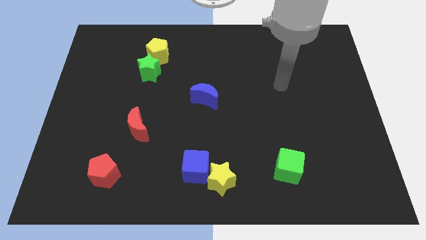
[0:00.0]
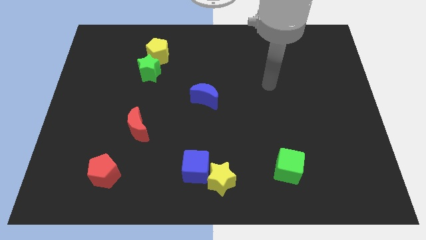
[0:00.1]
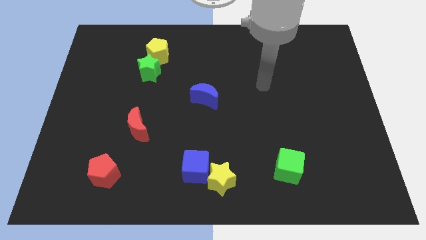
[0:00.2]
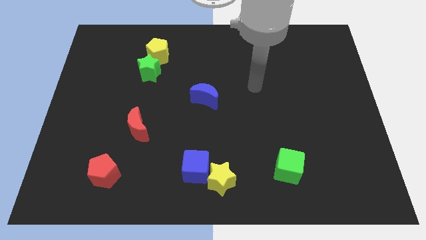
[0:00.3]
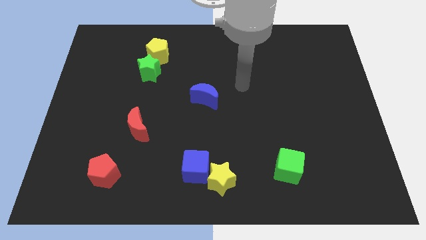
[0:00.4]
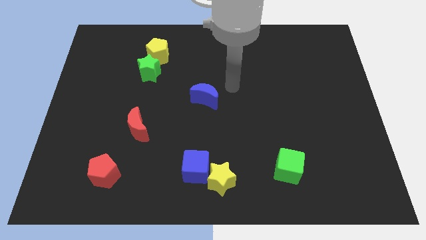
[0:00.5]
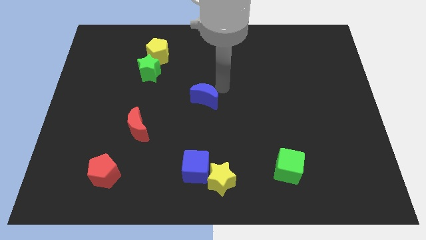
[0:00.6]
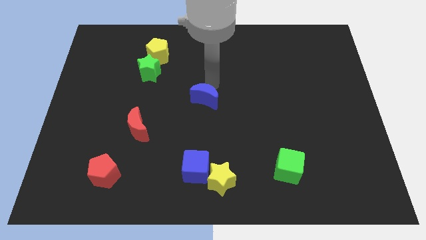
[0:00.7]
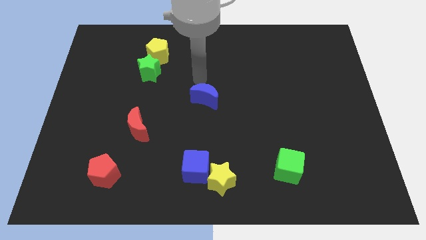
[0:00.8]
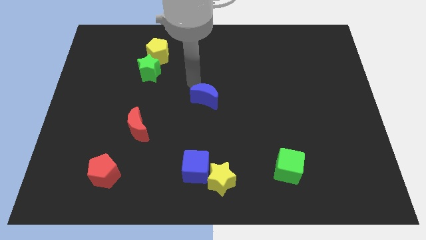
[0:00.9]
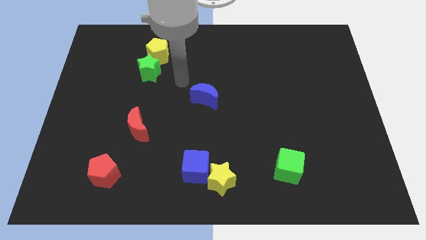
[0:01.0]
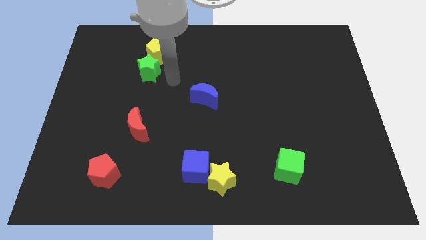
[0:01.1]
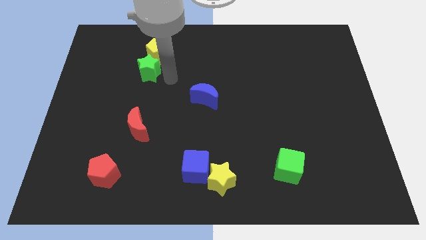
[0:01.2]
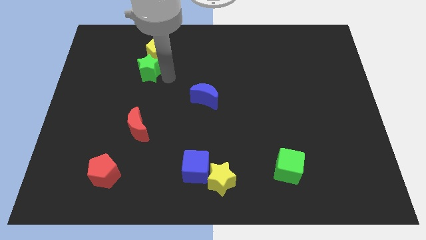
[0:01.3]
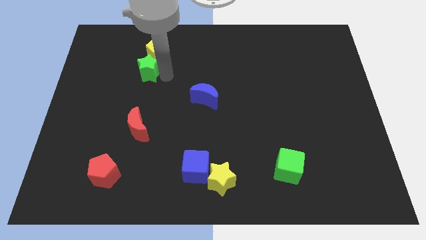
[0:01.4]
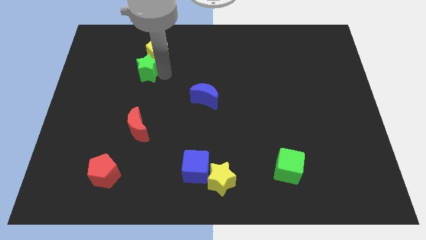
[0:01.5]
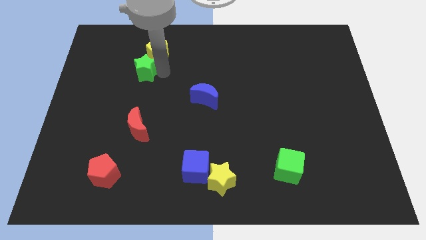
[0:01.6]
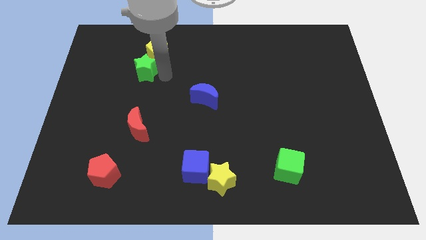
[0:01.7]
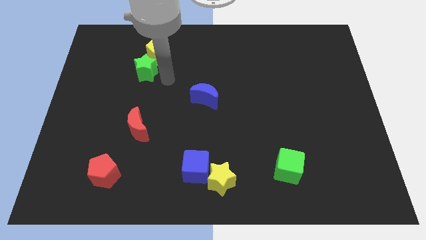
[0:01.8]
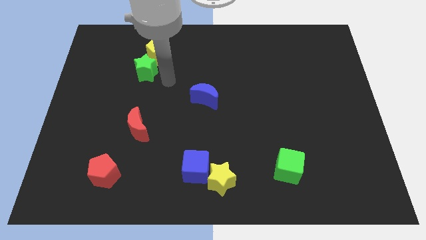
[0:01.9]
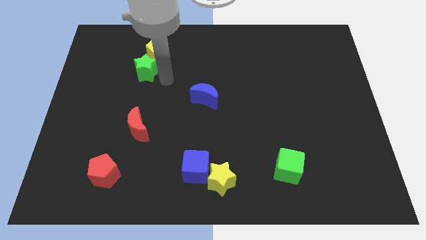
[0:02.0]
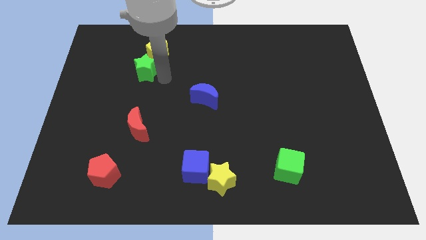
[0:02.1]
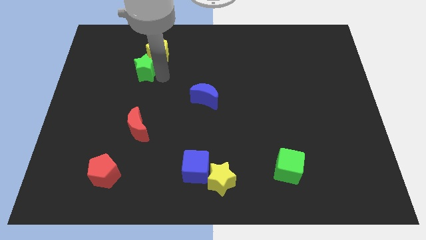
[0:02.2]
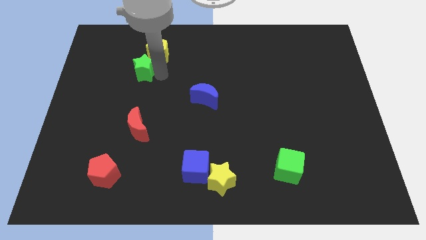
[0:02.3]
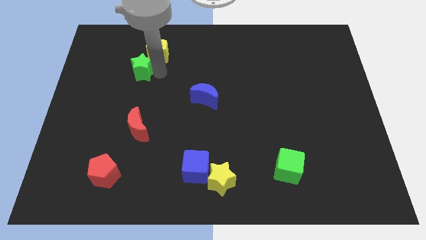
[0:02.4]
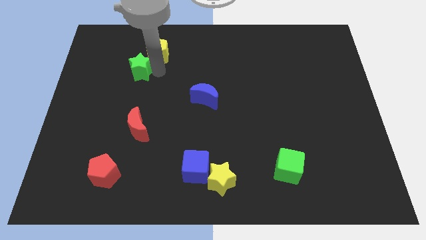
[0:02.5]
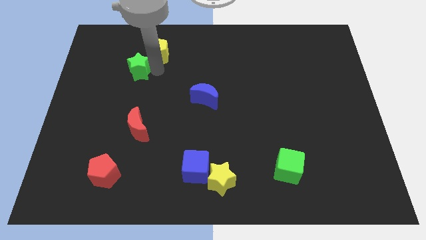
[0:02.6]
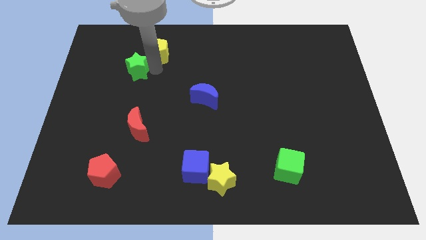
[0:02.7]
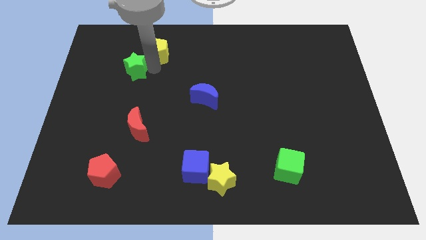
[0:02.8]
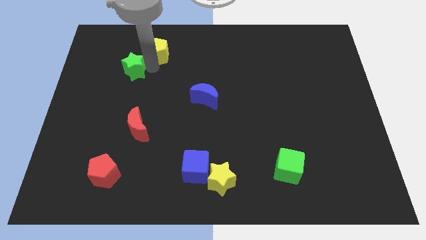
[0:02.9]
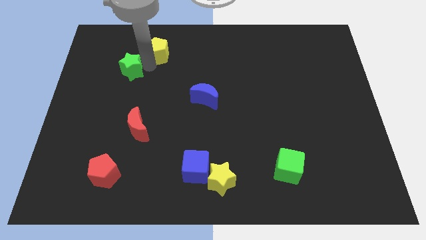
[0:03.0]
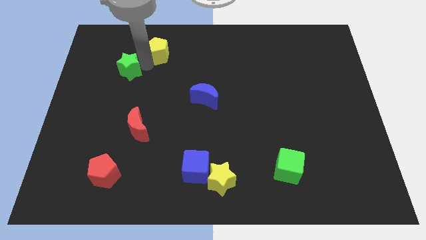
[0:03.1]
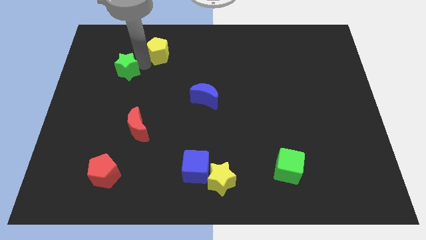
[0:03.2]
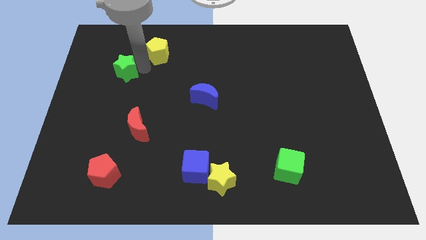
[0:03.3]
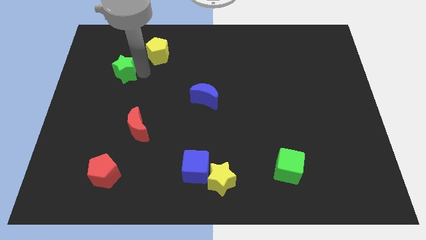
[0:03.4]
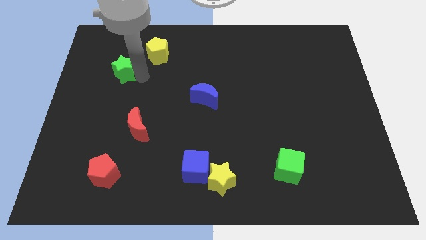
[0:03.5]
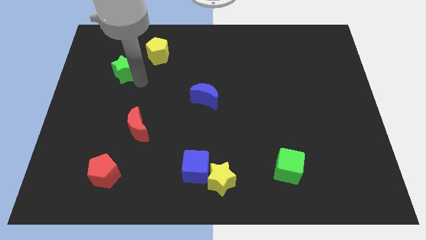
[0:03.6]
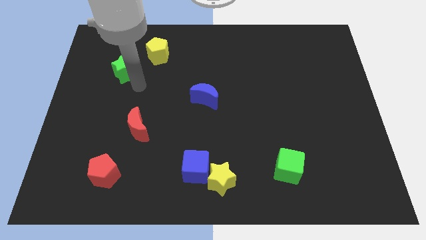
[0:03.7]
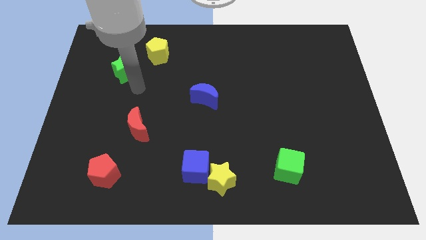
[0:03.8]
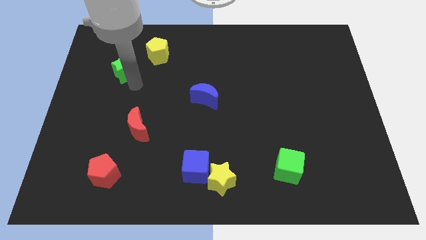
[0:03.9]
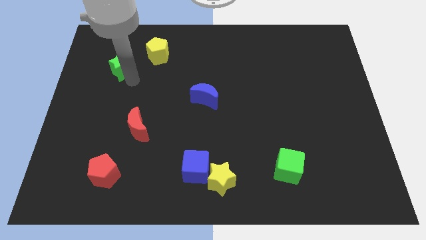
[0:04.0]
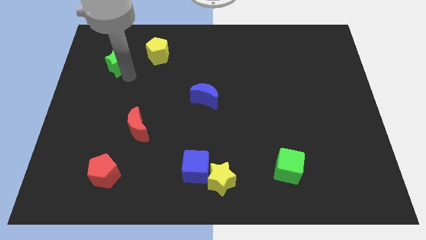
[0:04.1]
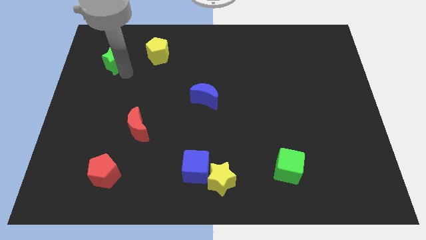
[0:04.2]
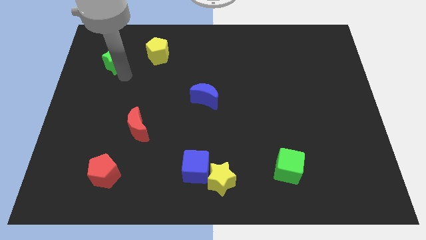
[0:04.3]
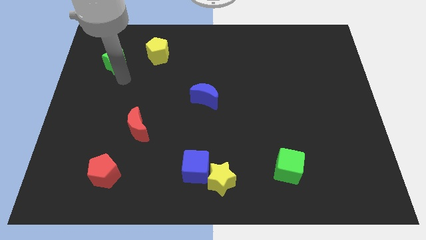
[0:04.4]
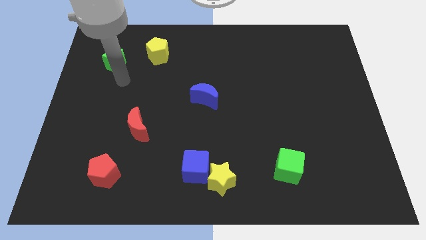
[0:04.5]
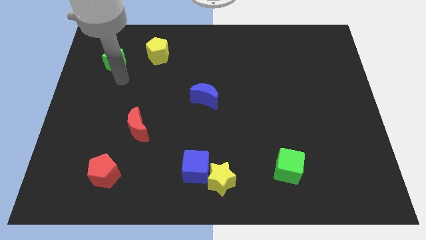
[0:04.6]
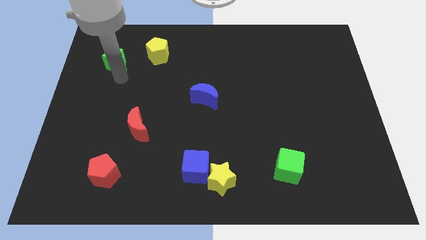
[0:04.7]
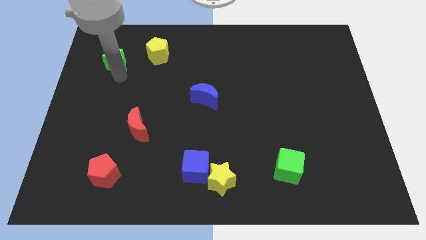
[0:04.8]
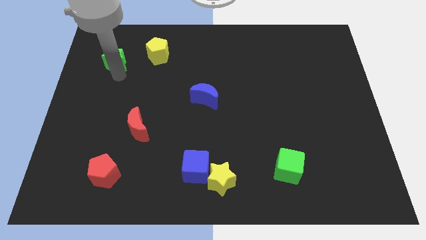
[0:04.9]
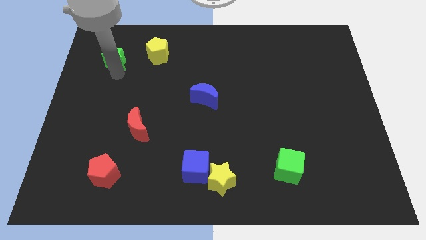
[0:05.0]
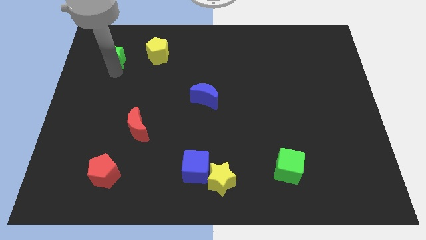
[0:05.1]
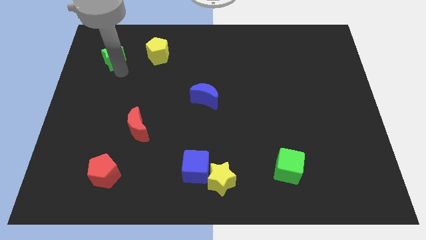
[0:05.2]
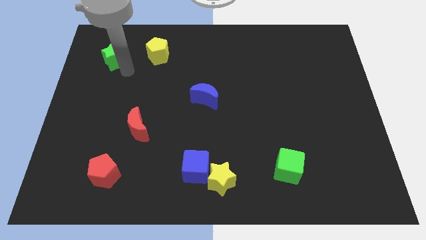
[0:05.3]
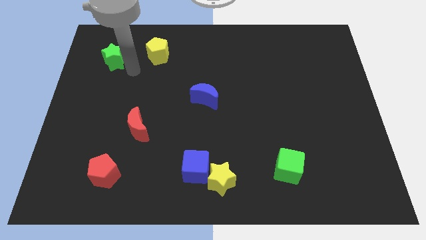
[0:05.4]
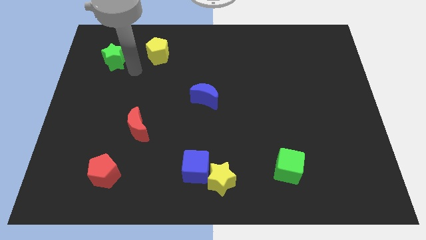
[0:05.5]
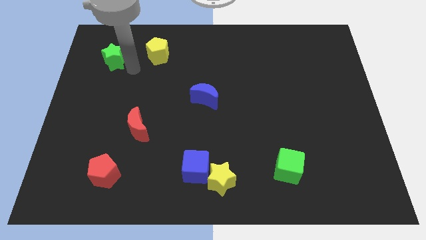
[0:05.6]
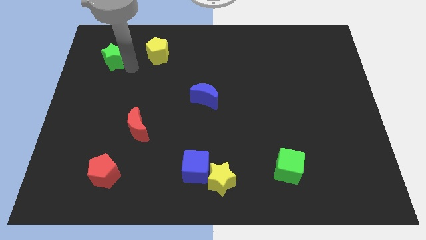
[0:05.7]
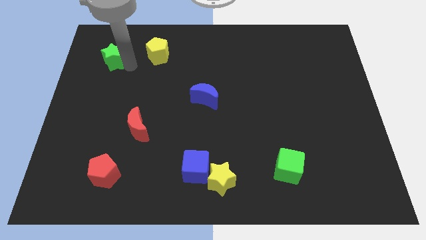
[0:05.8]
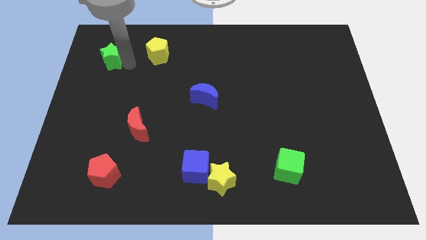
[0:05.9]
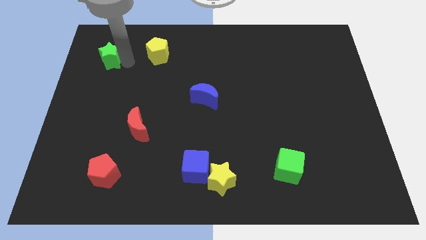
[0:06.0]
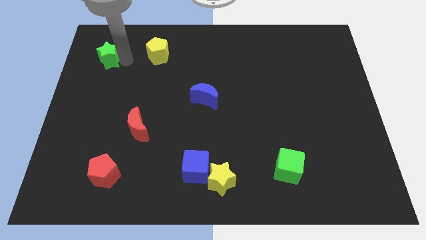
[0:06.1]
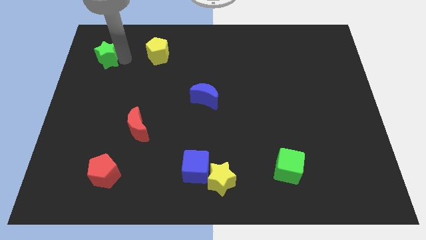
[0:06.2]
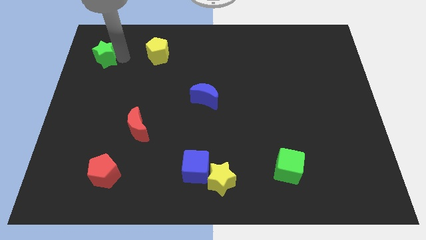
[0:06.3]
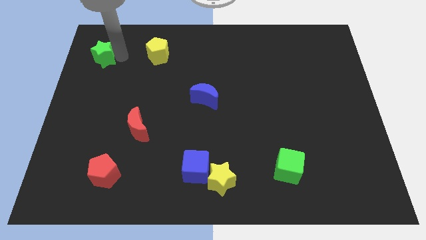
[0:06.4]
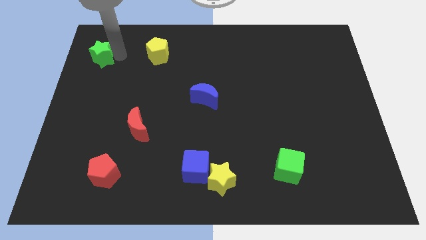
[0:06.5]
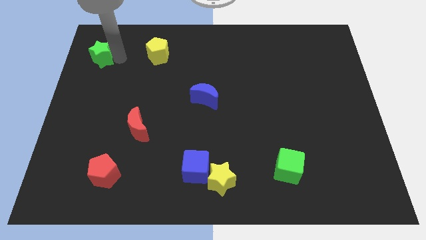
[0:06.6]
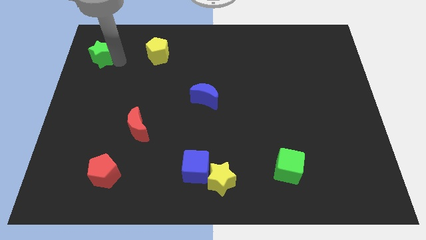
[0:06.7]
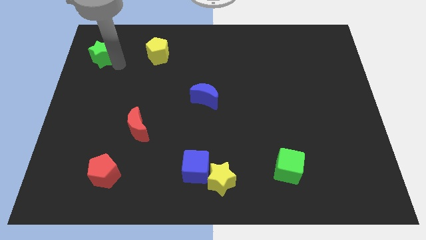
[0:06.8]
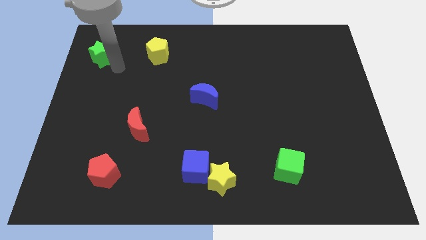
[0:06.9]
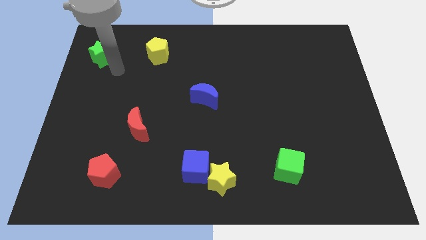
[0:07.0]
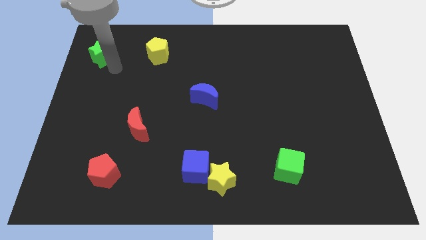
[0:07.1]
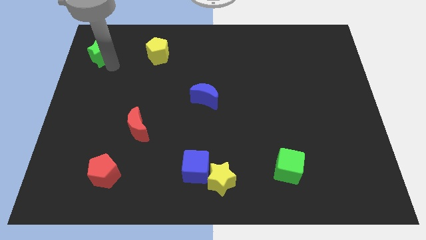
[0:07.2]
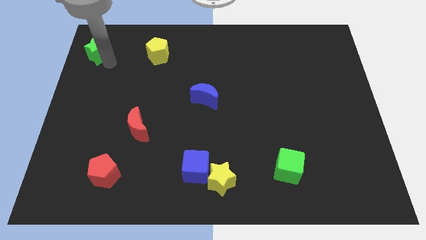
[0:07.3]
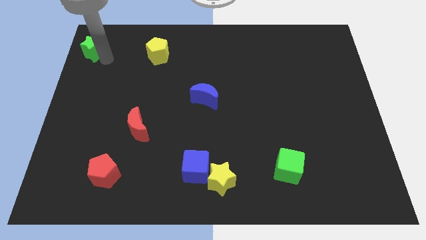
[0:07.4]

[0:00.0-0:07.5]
push the green star to the upper left corner
